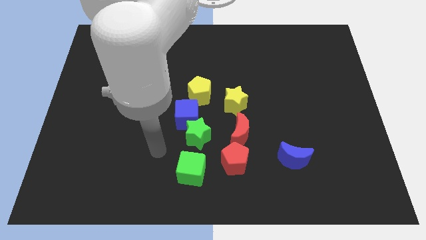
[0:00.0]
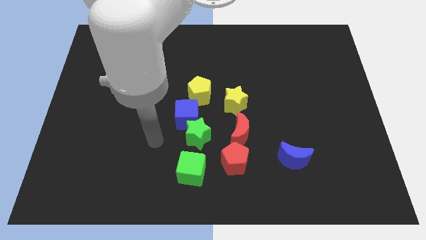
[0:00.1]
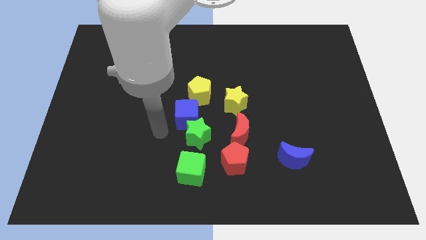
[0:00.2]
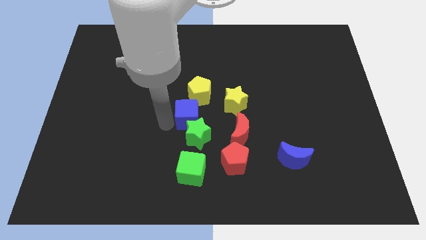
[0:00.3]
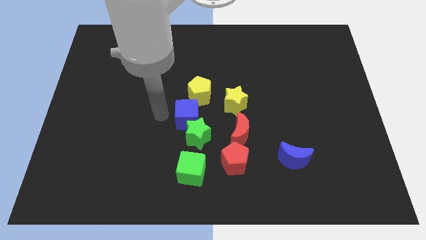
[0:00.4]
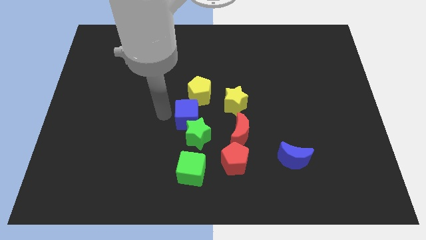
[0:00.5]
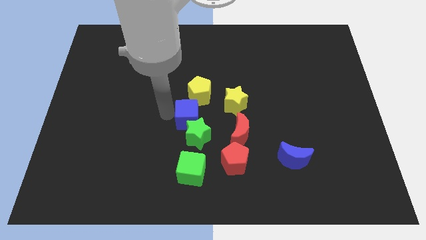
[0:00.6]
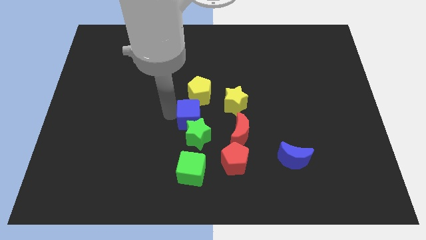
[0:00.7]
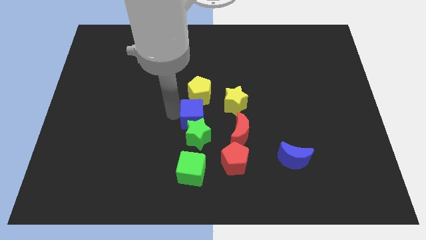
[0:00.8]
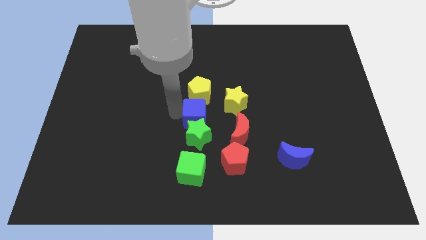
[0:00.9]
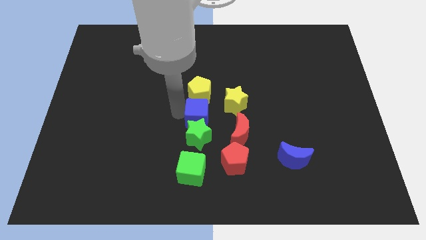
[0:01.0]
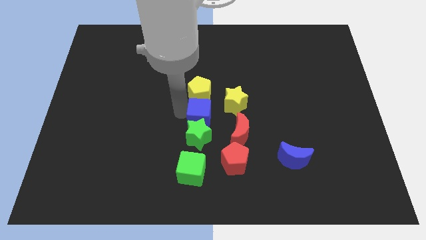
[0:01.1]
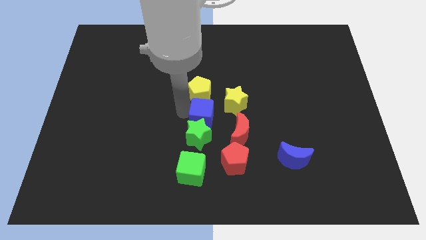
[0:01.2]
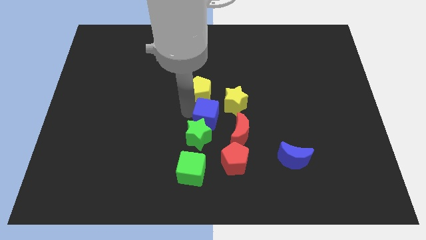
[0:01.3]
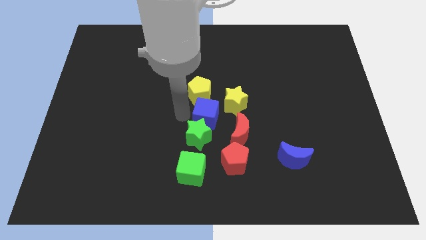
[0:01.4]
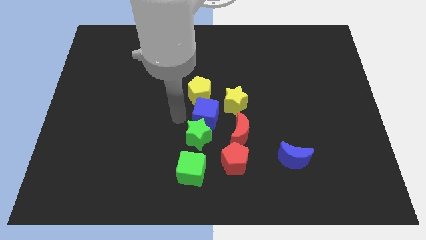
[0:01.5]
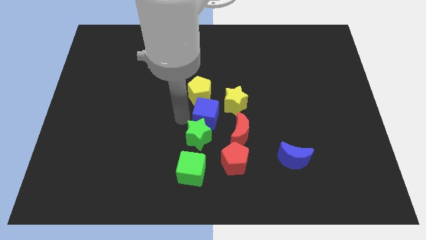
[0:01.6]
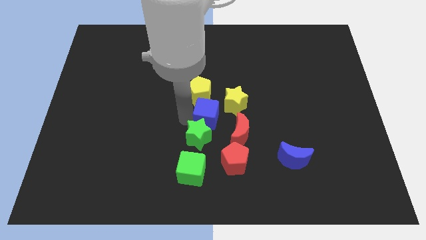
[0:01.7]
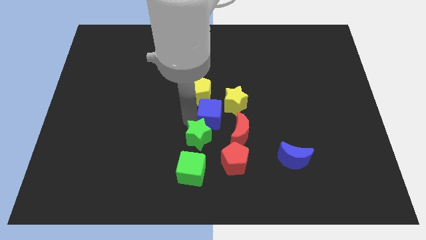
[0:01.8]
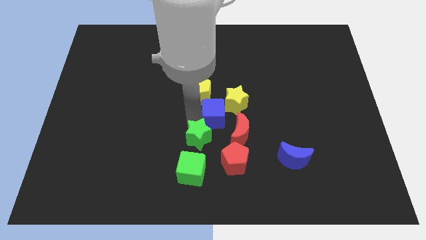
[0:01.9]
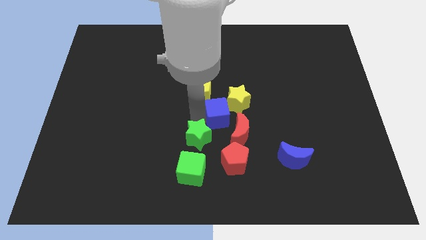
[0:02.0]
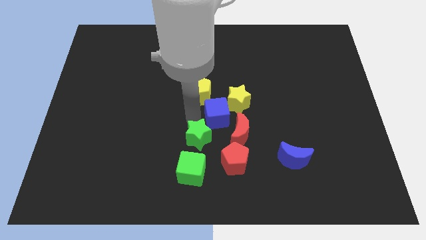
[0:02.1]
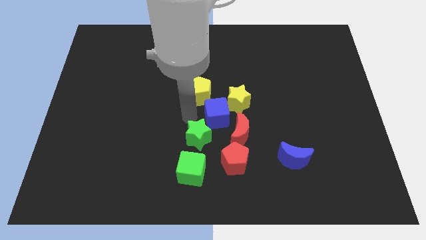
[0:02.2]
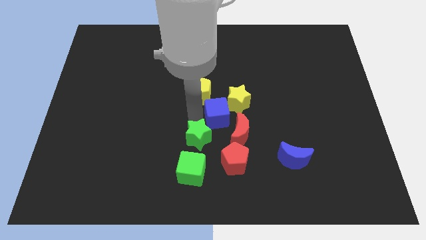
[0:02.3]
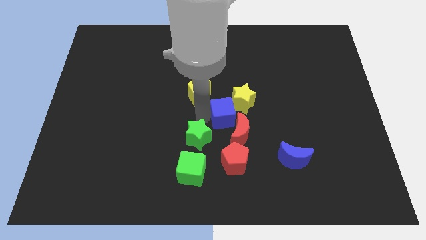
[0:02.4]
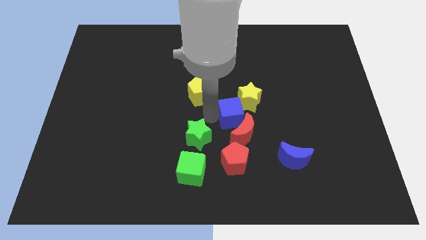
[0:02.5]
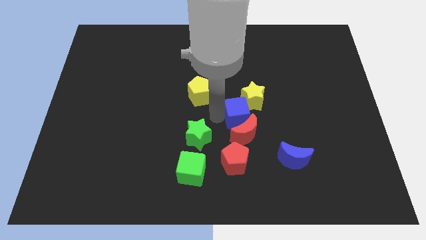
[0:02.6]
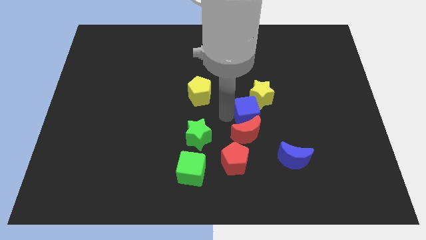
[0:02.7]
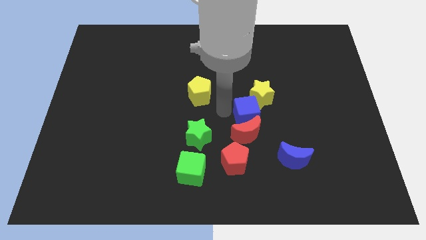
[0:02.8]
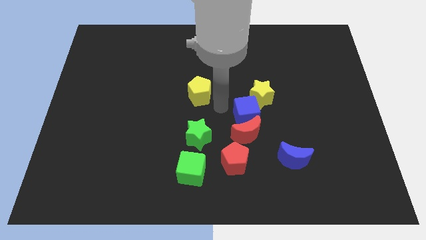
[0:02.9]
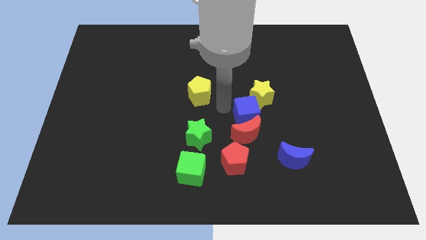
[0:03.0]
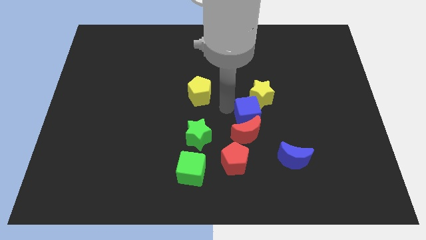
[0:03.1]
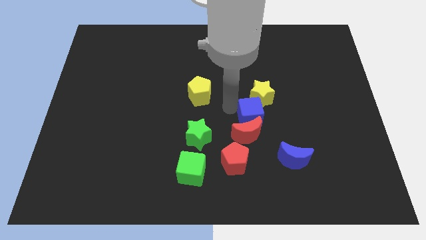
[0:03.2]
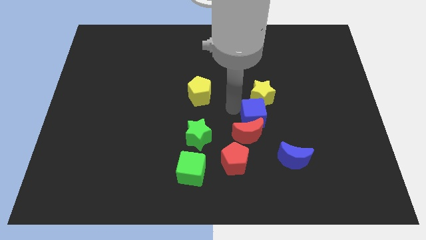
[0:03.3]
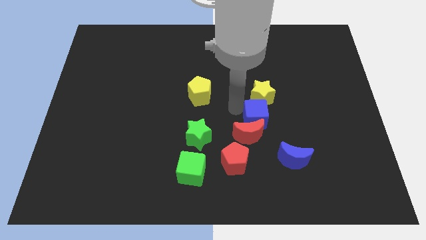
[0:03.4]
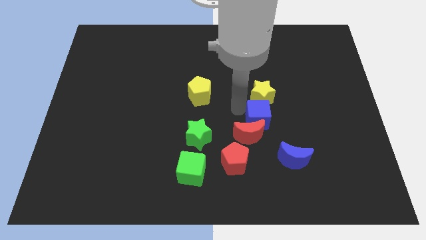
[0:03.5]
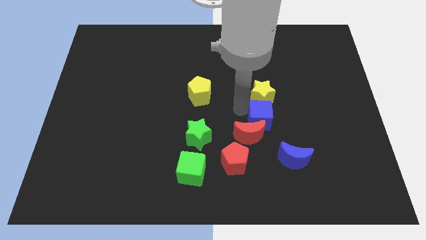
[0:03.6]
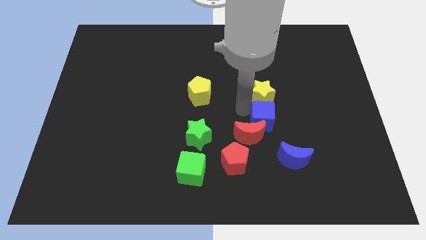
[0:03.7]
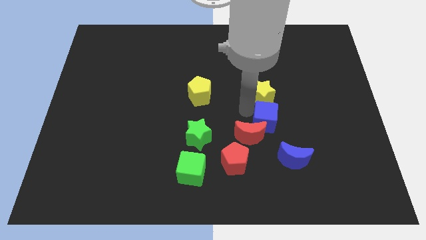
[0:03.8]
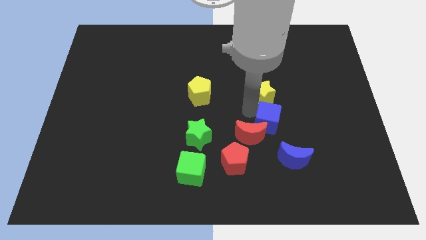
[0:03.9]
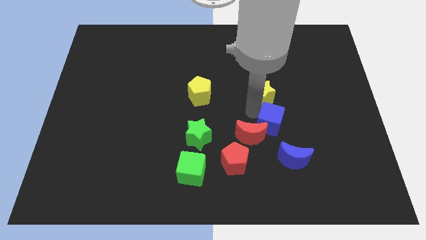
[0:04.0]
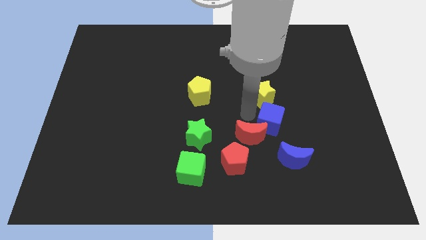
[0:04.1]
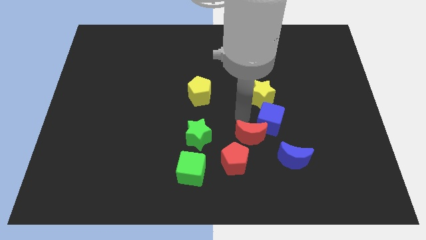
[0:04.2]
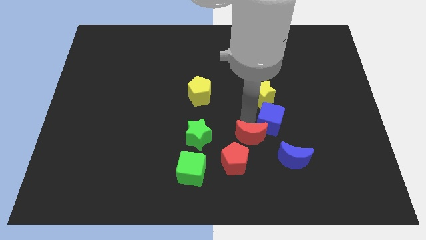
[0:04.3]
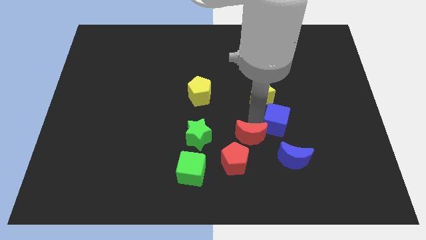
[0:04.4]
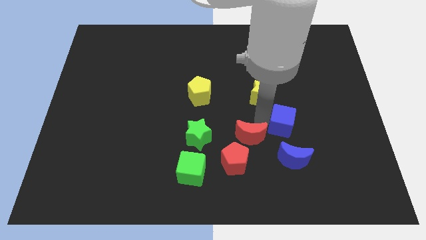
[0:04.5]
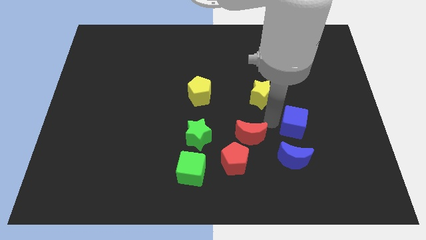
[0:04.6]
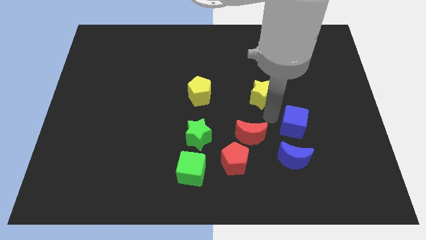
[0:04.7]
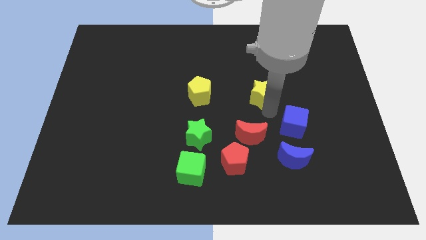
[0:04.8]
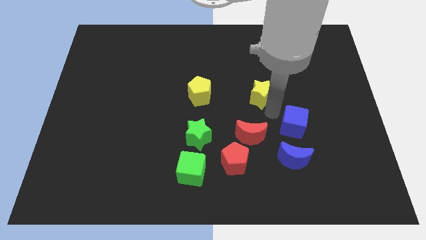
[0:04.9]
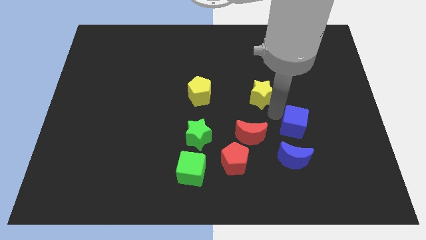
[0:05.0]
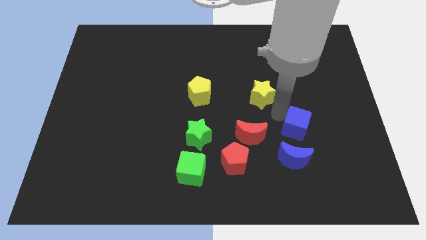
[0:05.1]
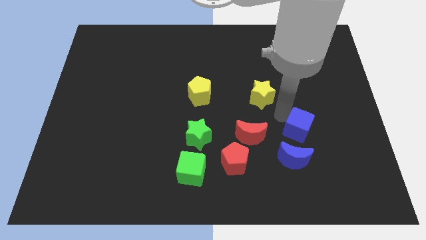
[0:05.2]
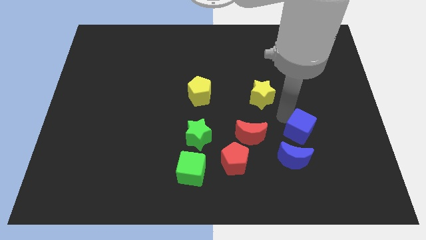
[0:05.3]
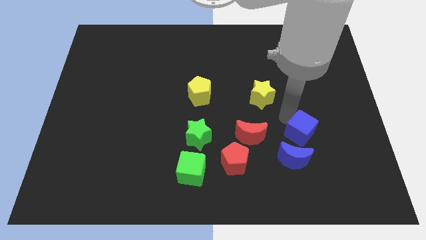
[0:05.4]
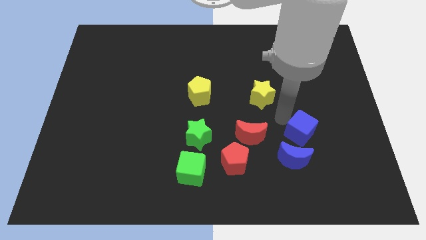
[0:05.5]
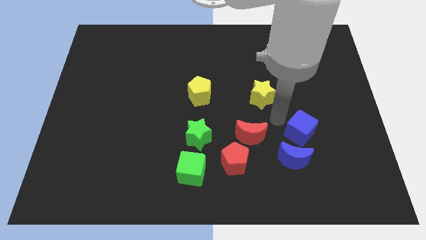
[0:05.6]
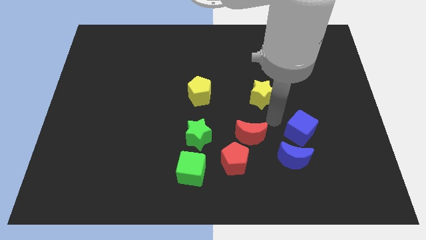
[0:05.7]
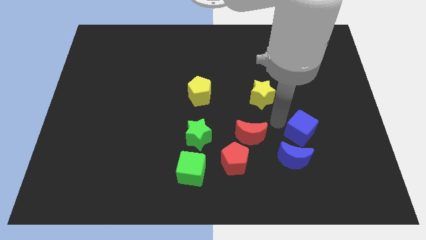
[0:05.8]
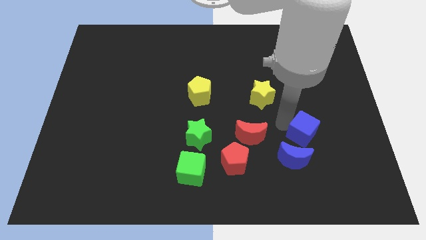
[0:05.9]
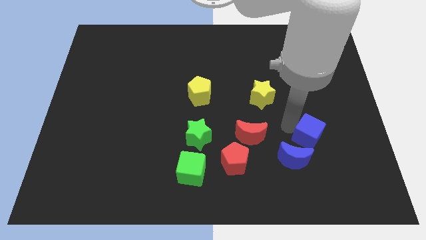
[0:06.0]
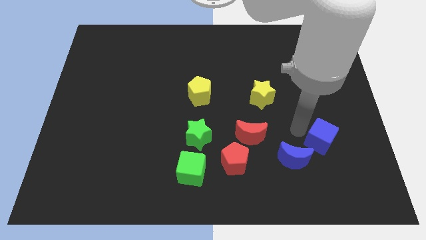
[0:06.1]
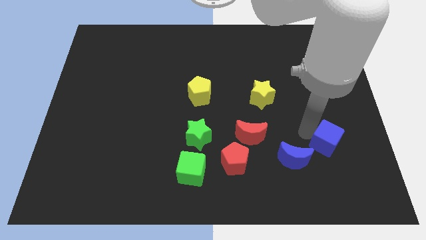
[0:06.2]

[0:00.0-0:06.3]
put the blue cube to the right side of the blue moon
